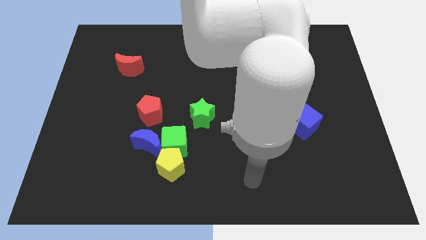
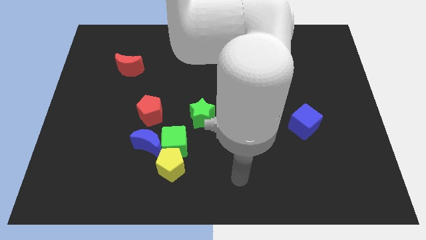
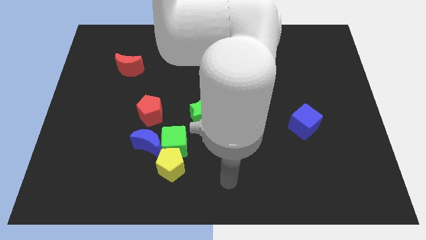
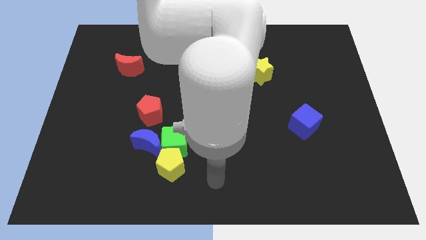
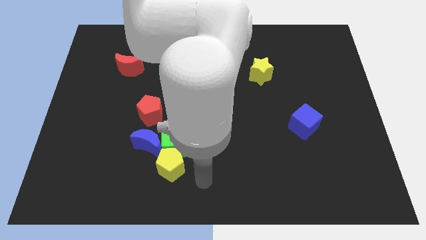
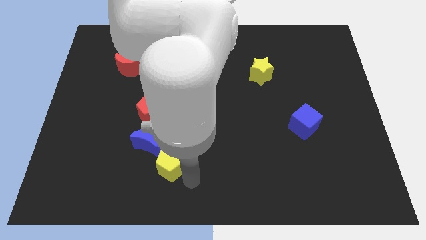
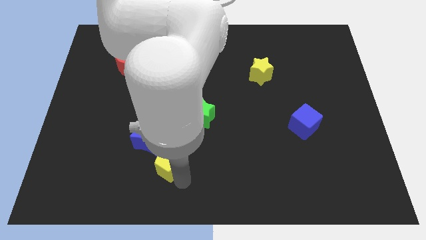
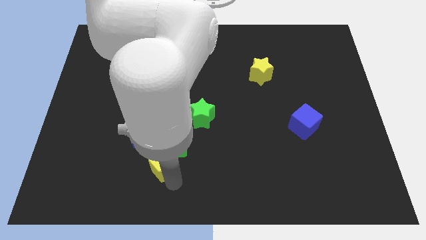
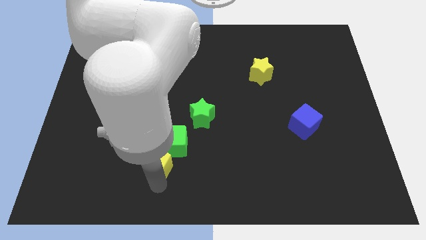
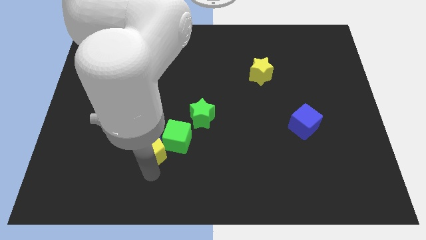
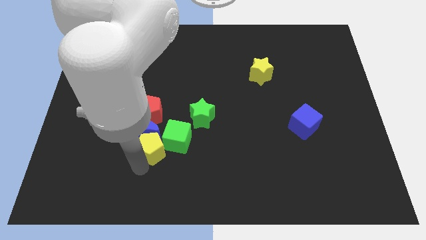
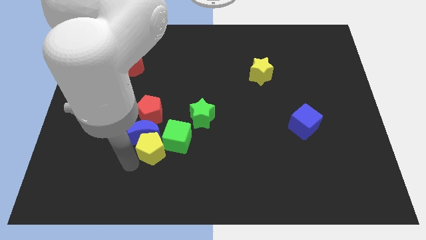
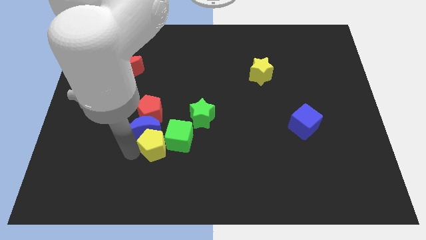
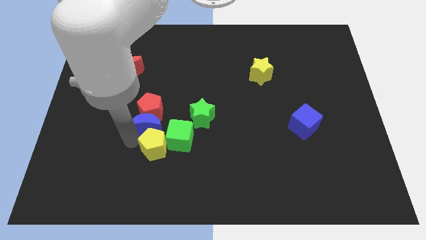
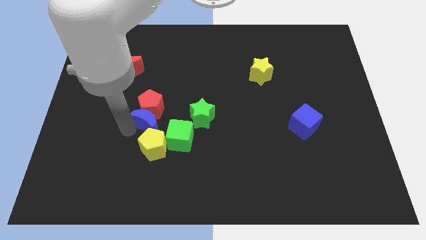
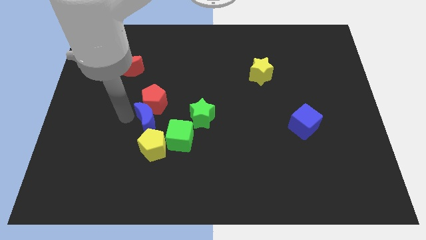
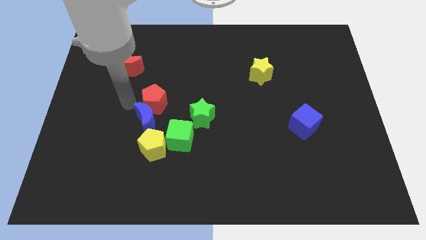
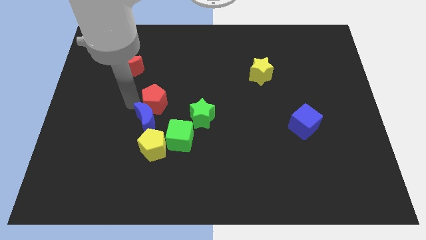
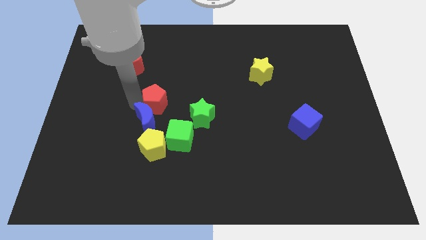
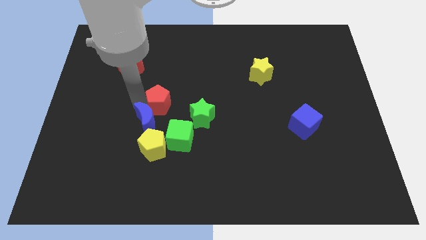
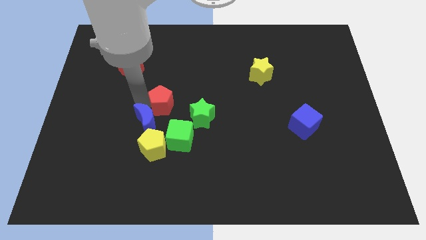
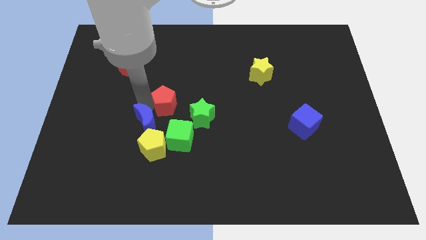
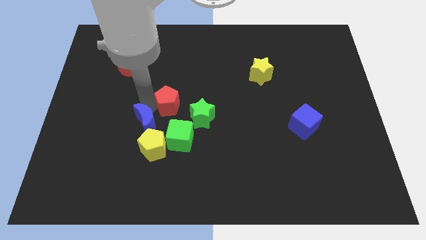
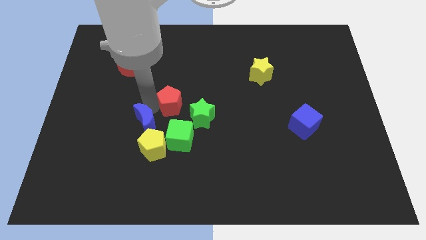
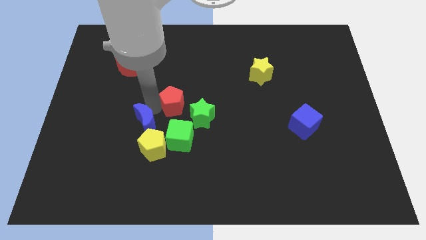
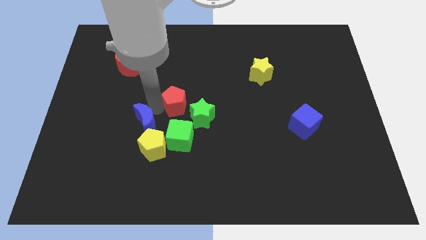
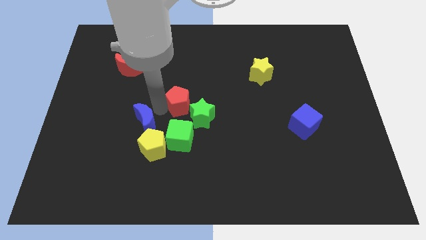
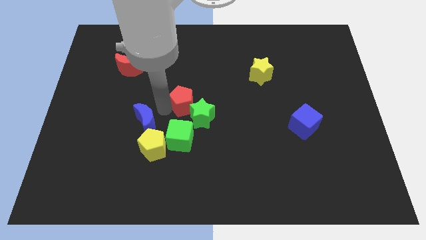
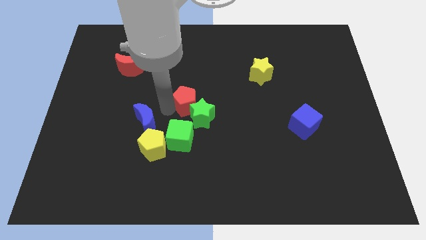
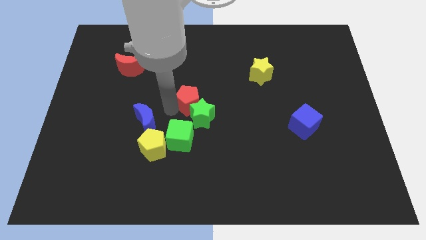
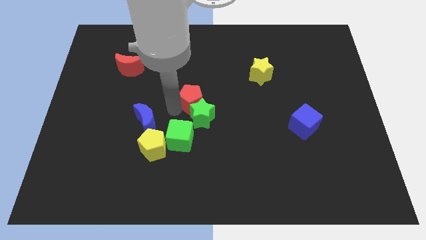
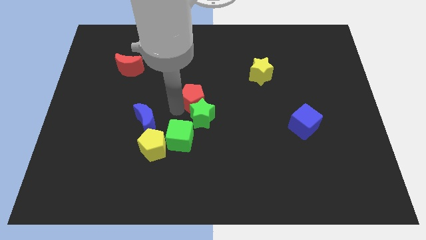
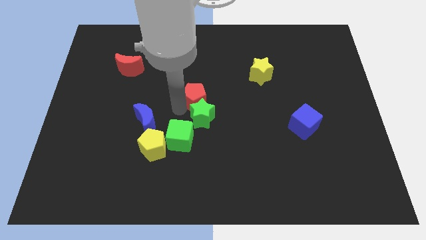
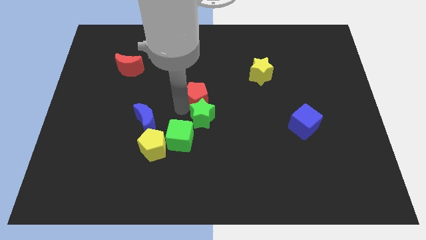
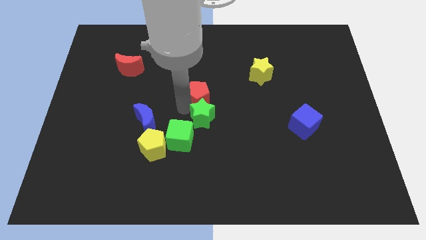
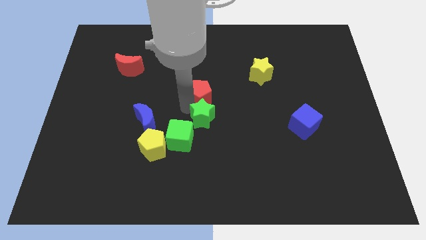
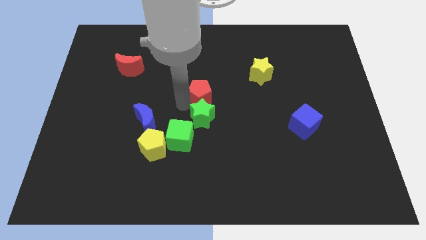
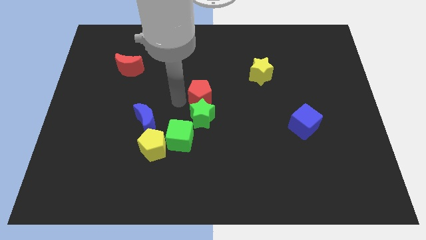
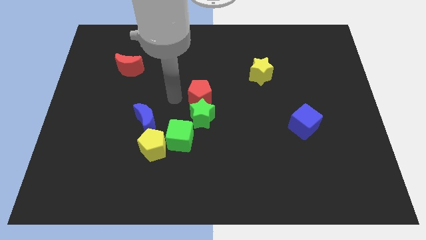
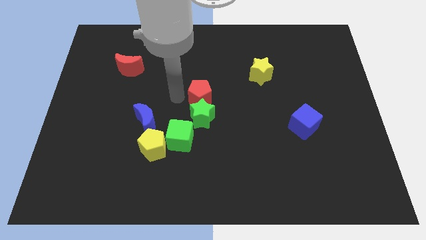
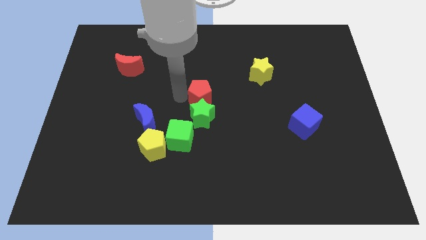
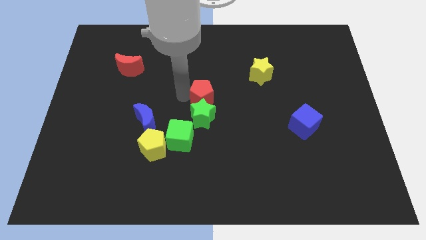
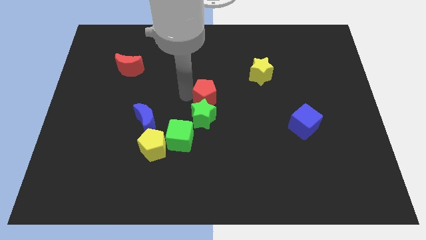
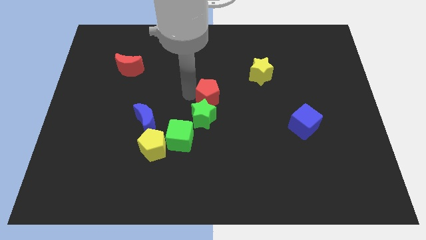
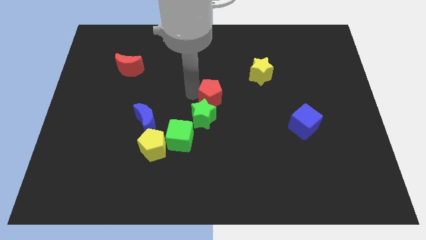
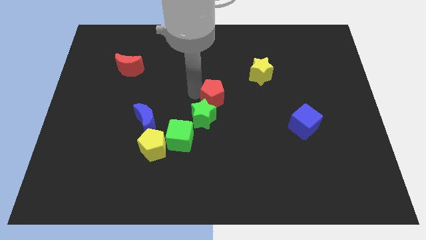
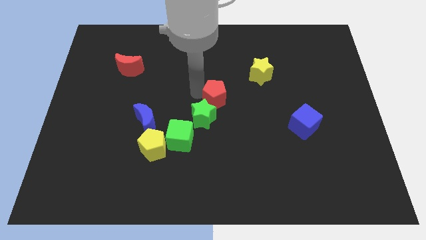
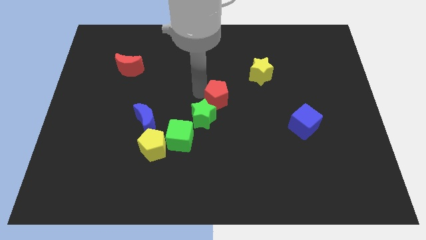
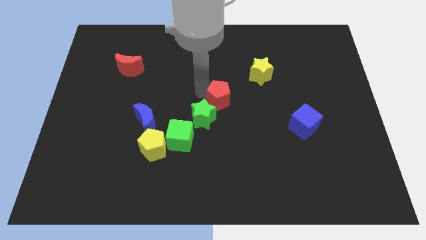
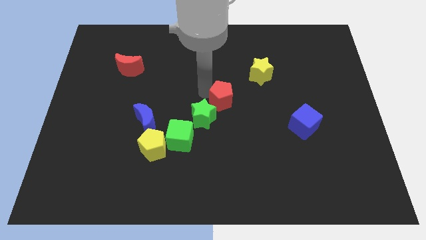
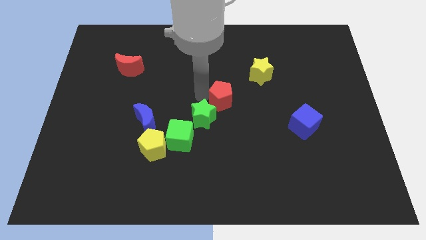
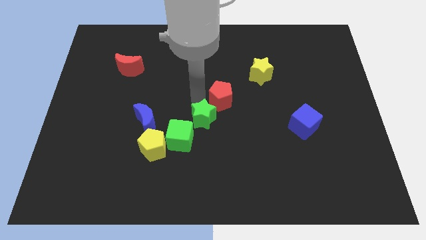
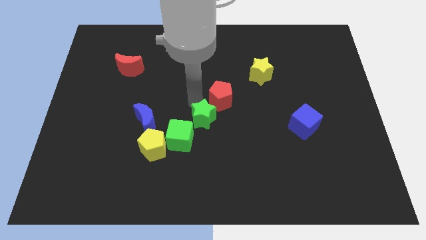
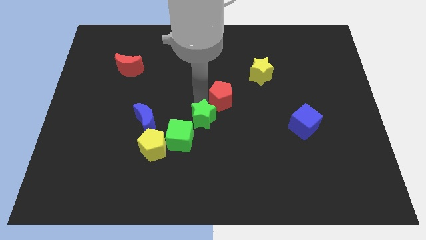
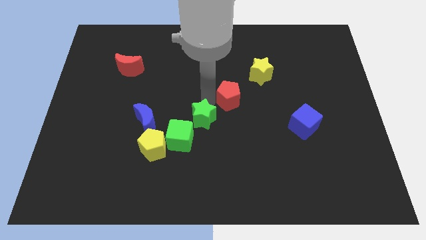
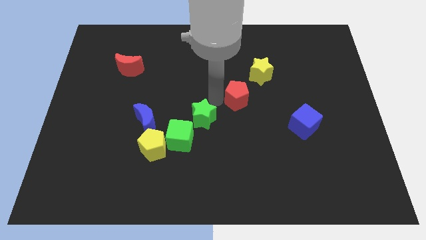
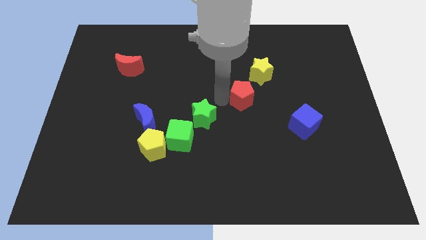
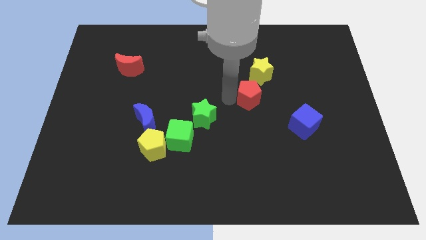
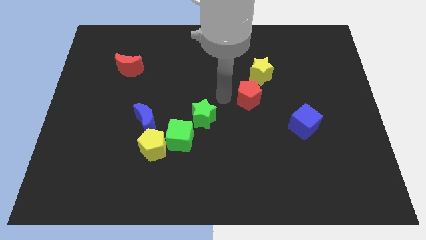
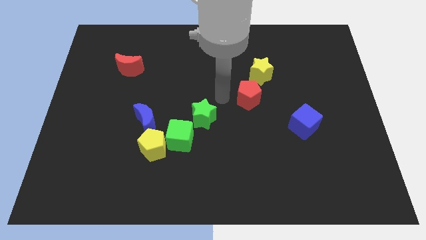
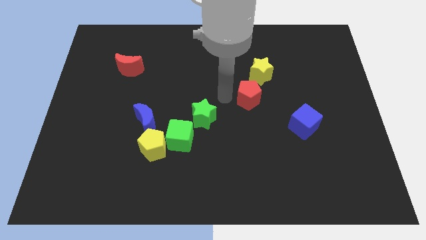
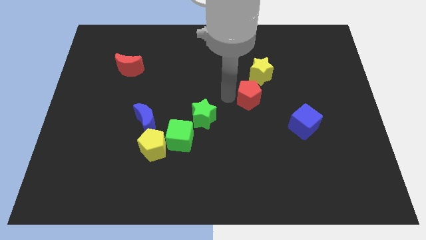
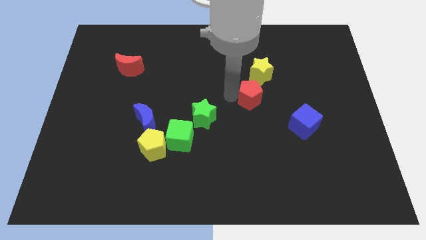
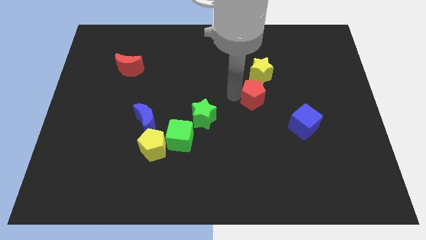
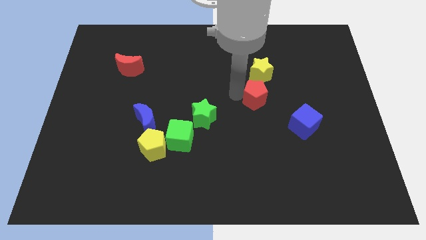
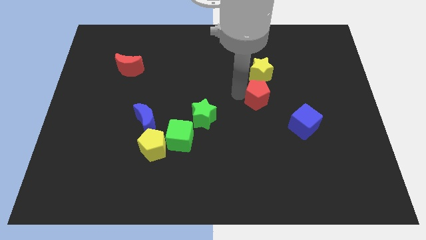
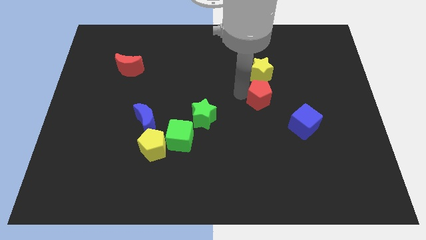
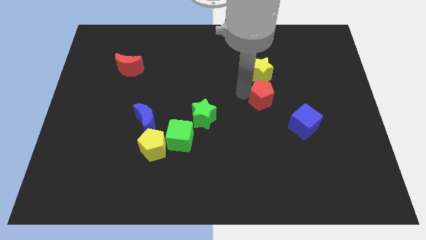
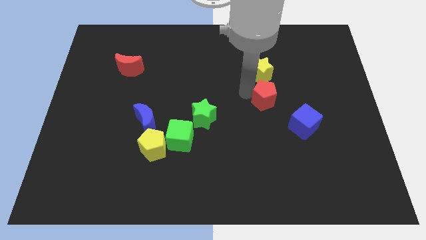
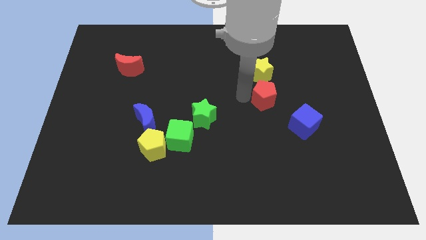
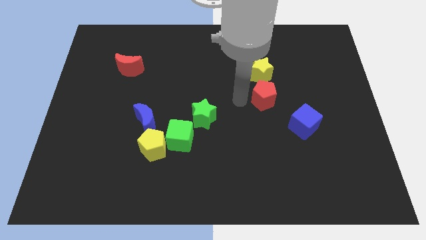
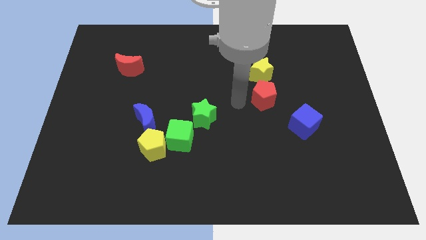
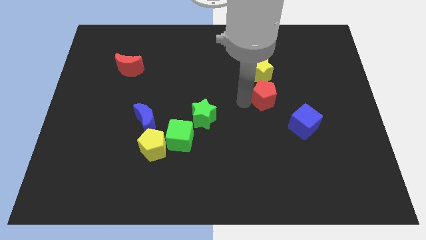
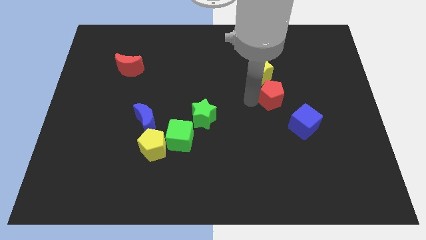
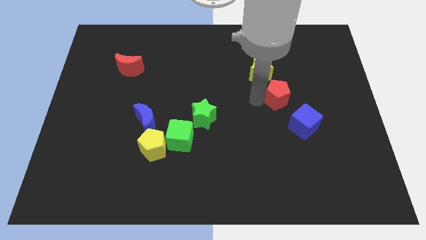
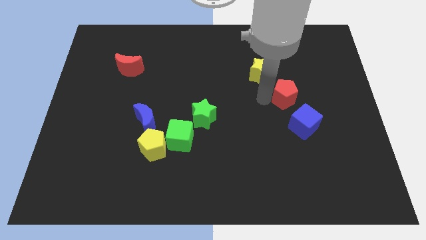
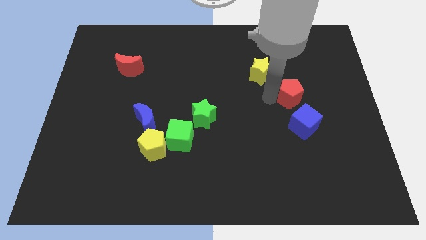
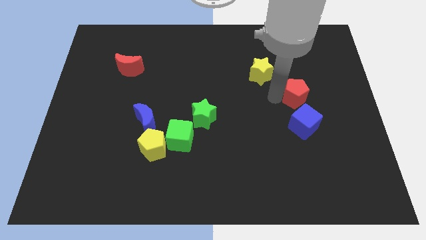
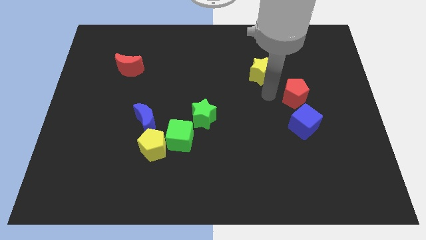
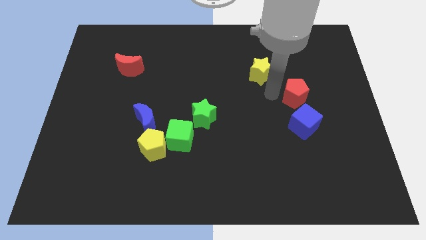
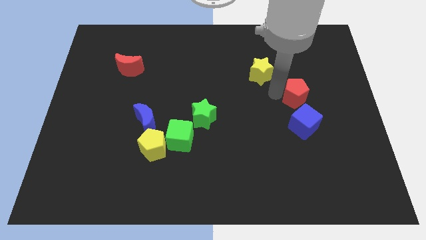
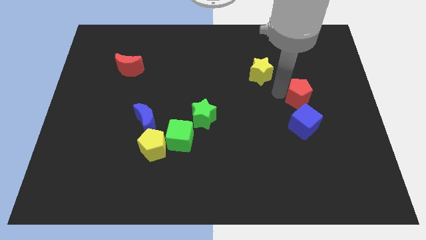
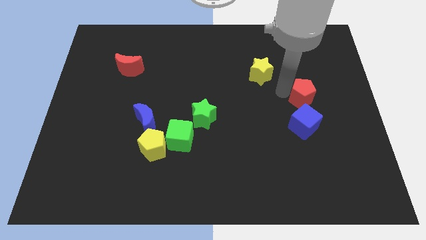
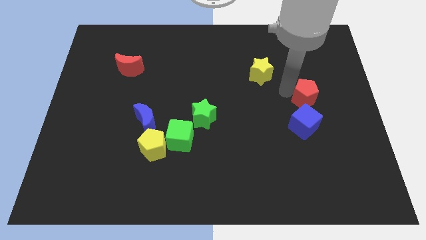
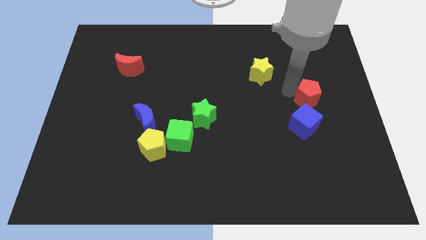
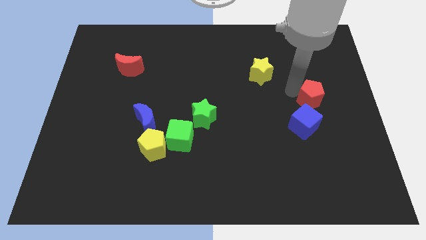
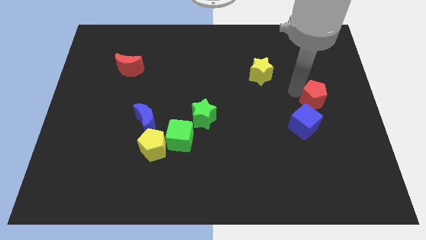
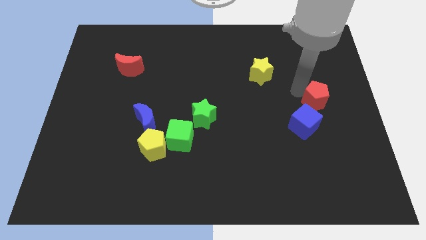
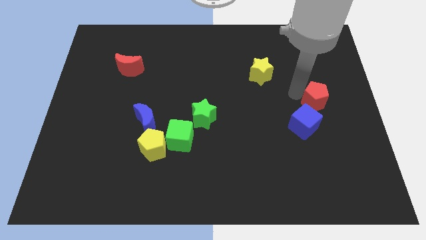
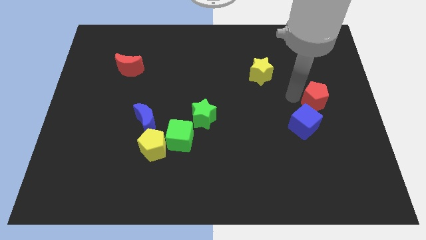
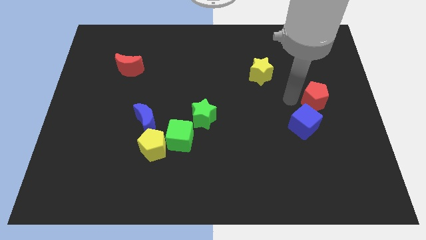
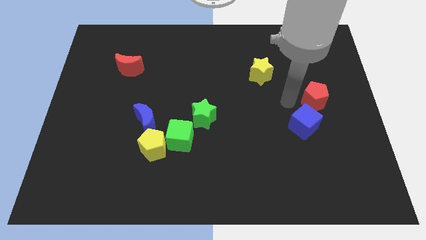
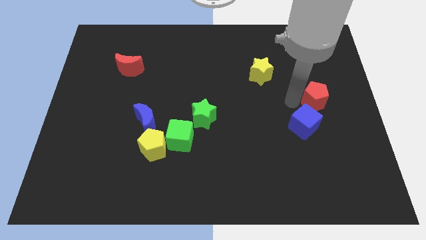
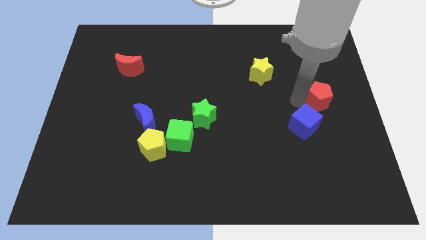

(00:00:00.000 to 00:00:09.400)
slide the red pentagon to the center right
